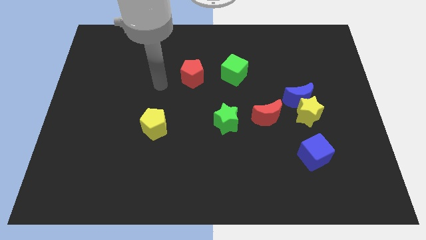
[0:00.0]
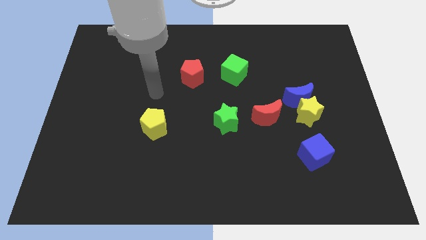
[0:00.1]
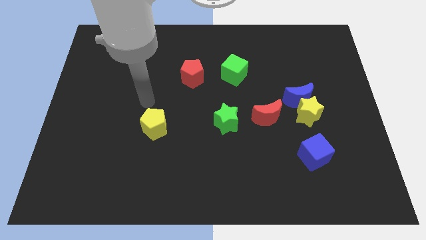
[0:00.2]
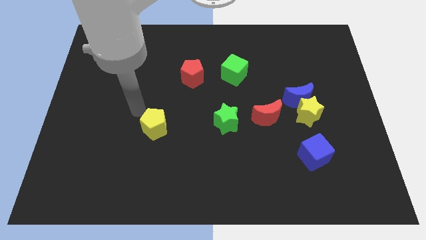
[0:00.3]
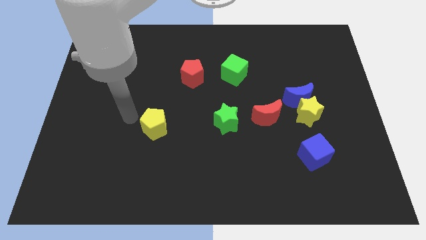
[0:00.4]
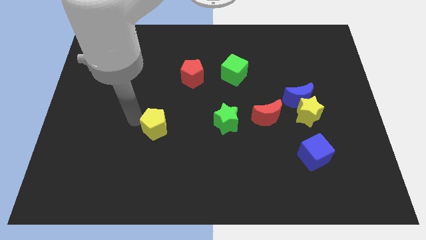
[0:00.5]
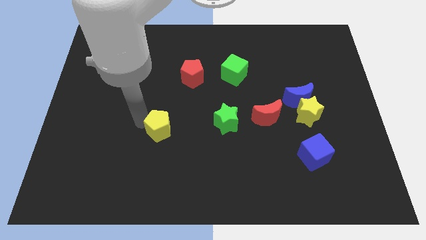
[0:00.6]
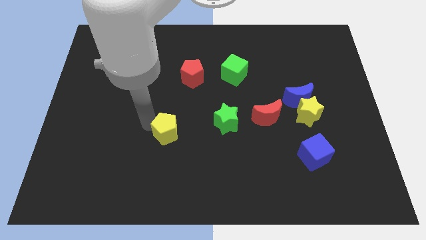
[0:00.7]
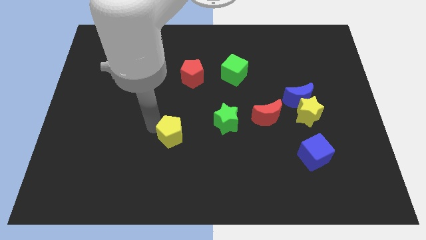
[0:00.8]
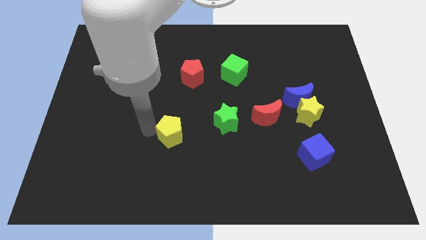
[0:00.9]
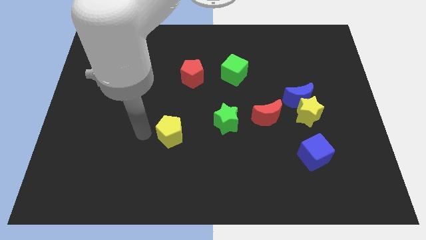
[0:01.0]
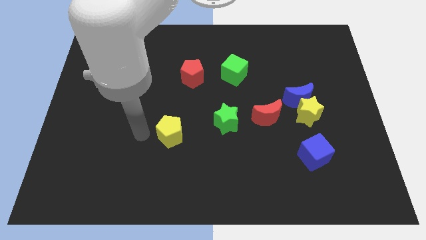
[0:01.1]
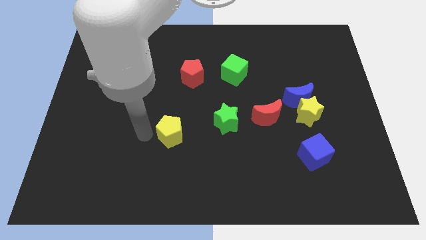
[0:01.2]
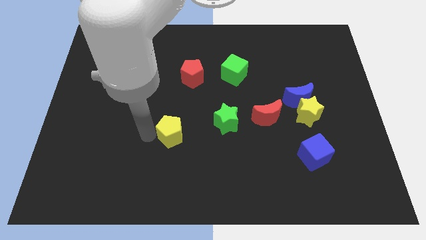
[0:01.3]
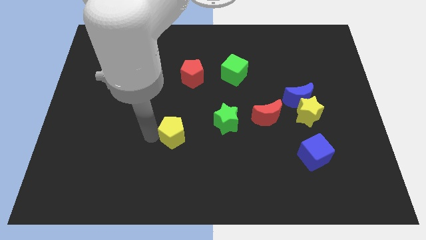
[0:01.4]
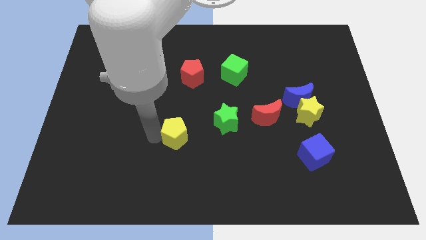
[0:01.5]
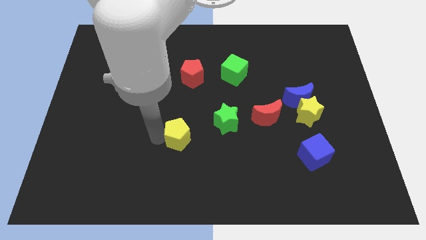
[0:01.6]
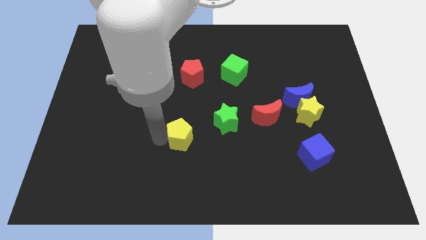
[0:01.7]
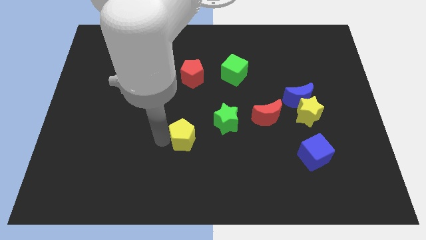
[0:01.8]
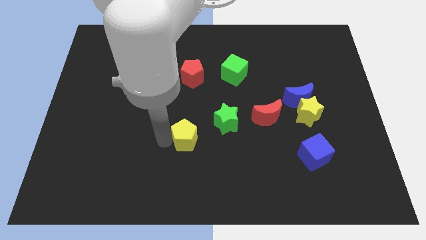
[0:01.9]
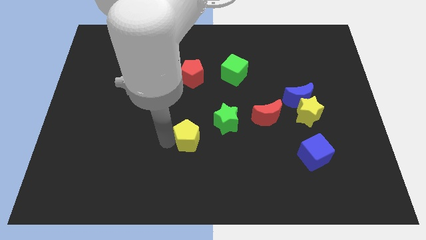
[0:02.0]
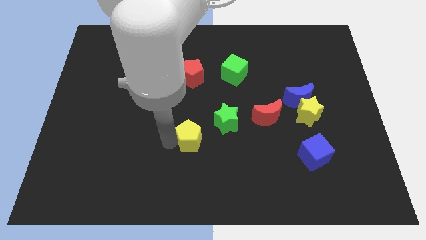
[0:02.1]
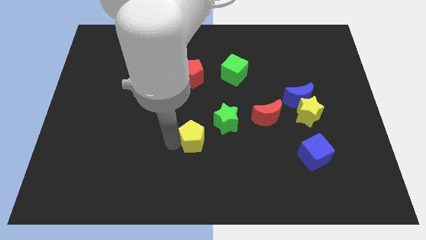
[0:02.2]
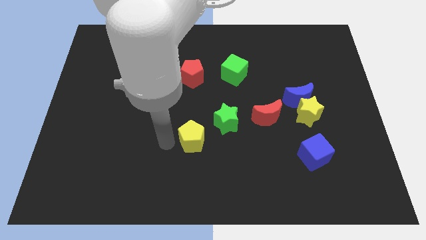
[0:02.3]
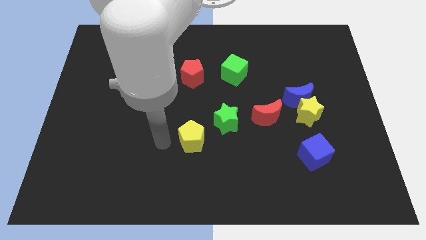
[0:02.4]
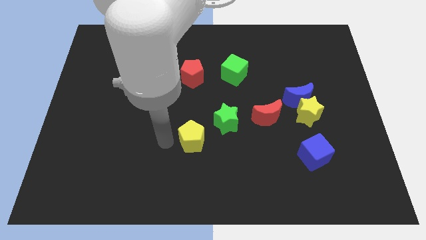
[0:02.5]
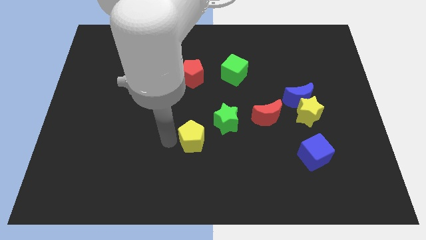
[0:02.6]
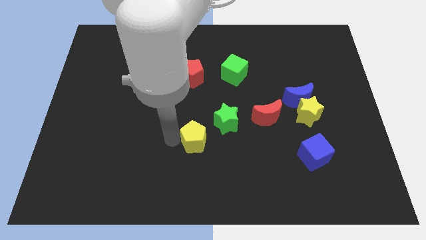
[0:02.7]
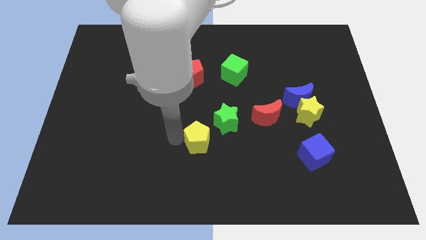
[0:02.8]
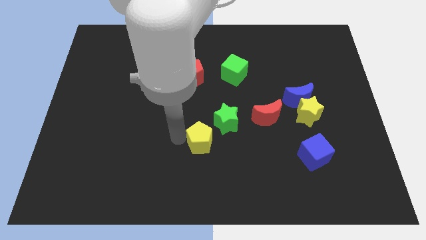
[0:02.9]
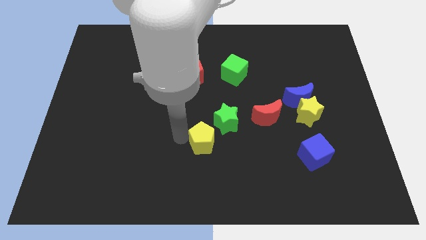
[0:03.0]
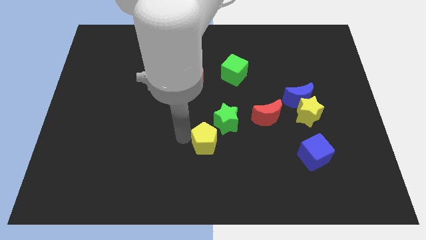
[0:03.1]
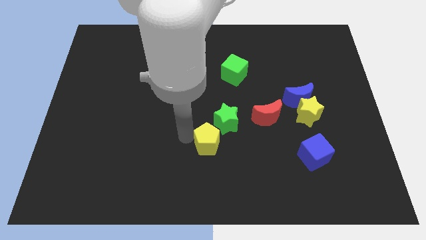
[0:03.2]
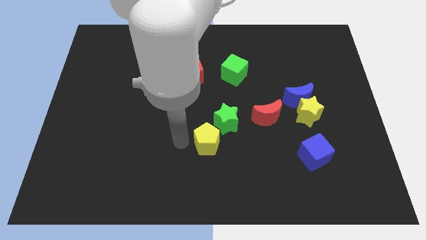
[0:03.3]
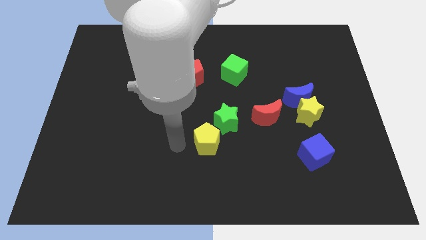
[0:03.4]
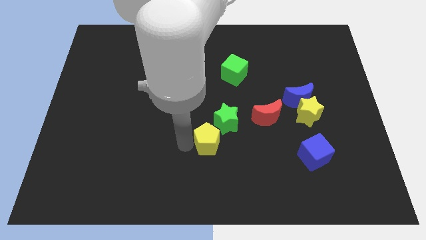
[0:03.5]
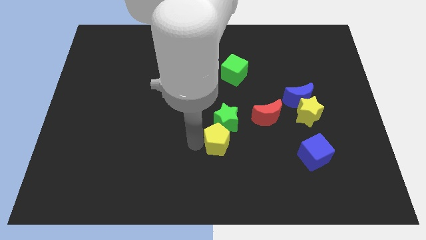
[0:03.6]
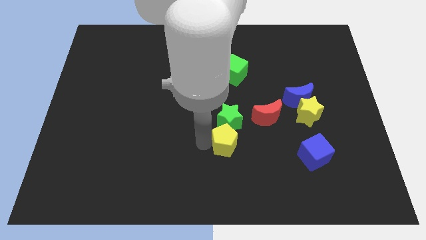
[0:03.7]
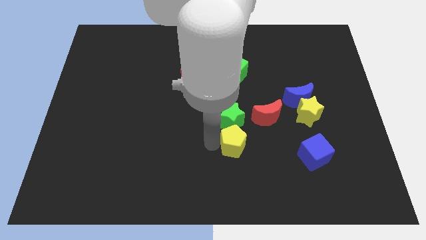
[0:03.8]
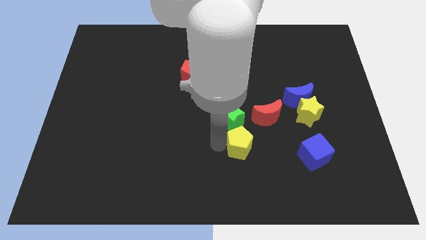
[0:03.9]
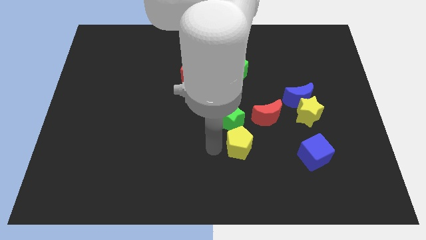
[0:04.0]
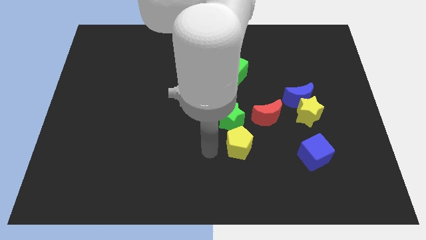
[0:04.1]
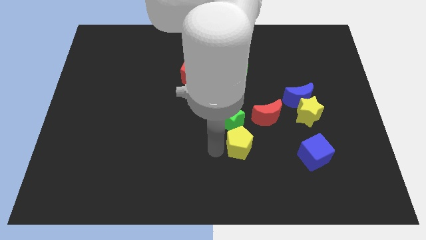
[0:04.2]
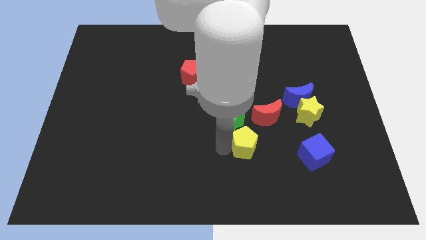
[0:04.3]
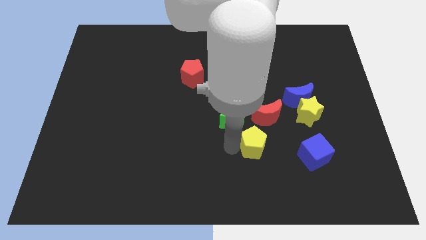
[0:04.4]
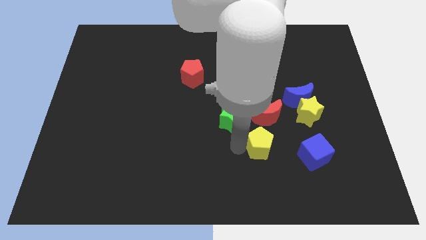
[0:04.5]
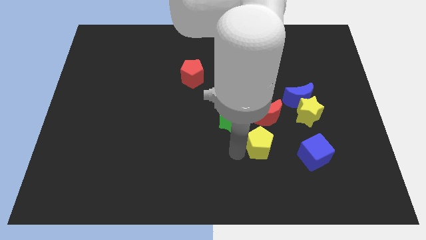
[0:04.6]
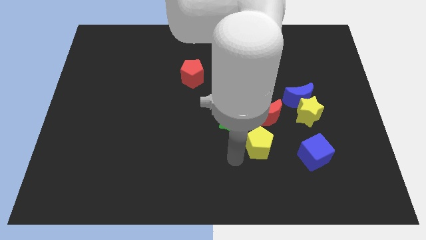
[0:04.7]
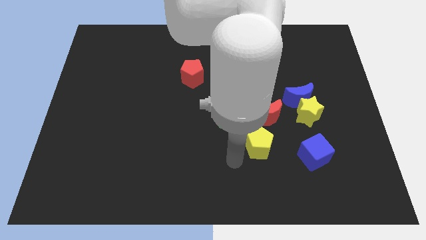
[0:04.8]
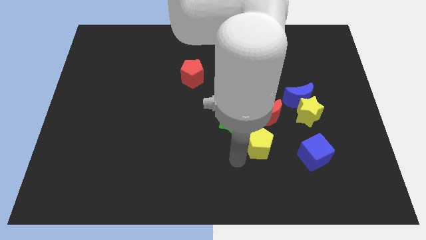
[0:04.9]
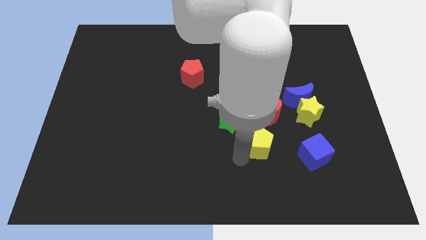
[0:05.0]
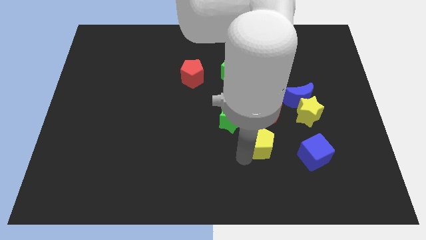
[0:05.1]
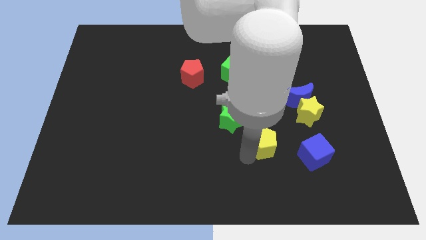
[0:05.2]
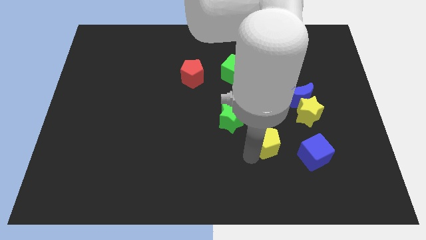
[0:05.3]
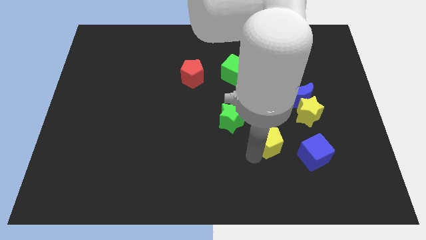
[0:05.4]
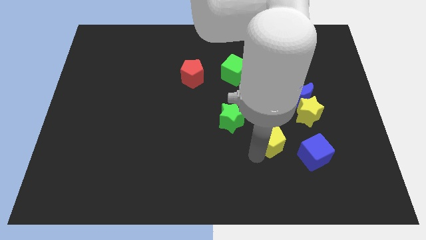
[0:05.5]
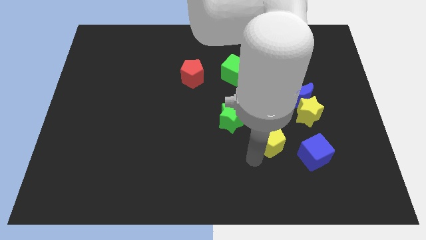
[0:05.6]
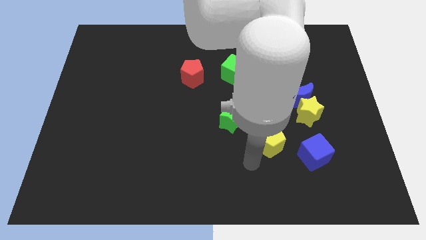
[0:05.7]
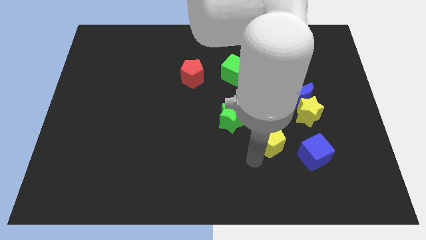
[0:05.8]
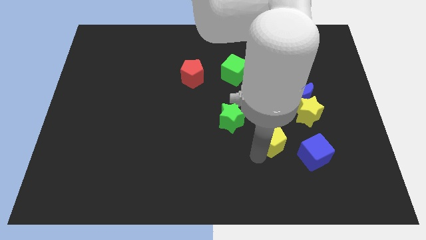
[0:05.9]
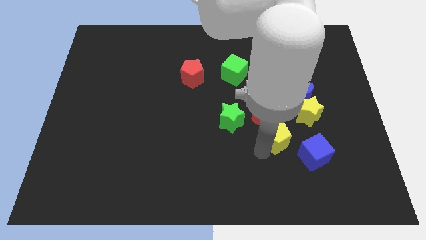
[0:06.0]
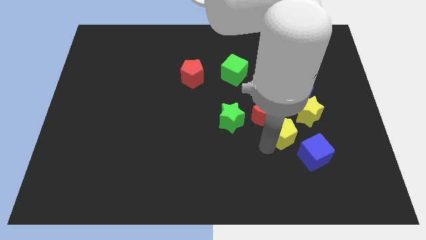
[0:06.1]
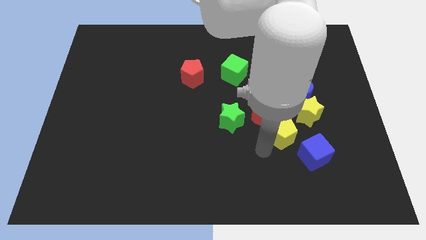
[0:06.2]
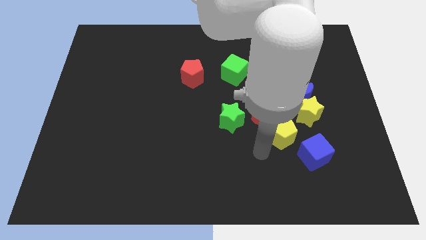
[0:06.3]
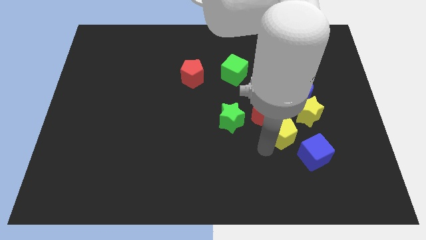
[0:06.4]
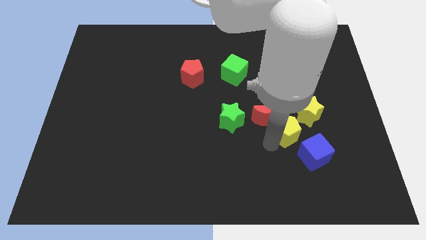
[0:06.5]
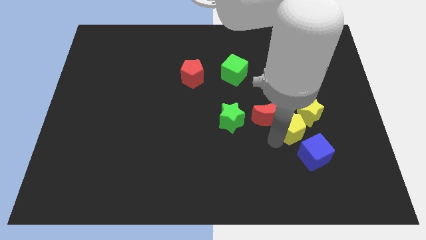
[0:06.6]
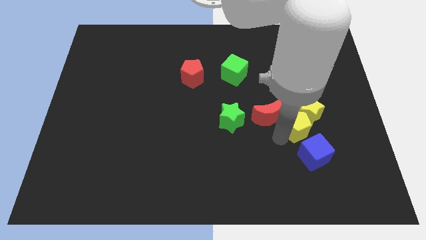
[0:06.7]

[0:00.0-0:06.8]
slide the yellow pentagon next to the yellow star
